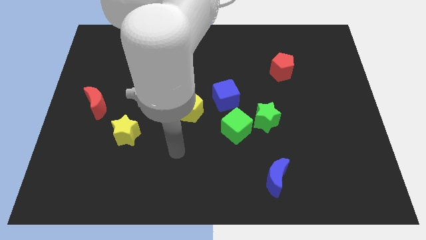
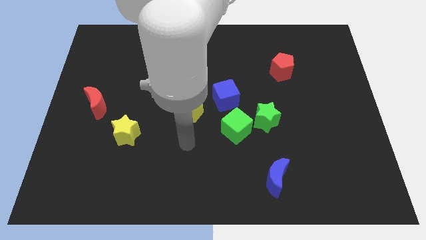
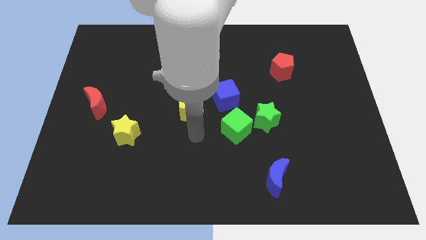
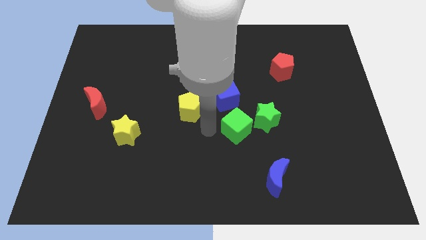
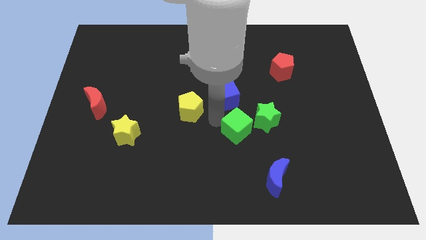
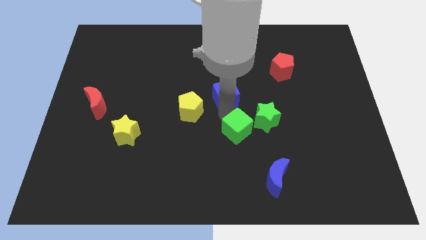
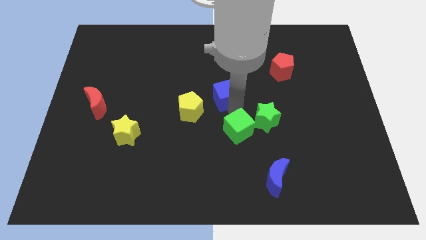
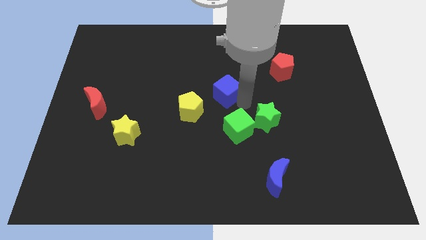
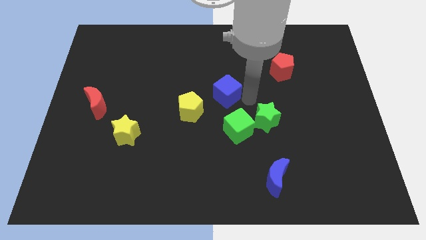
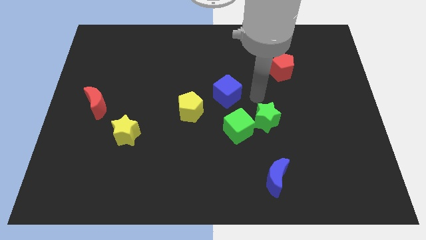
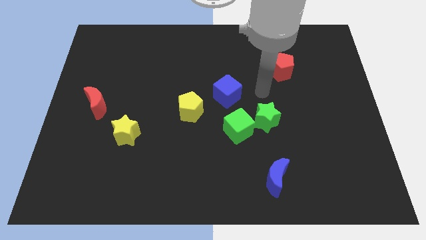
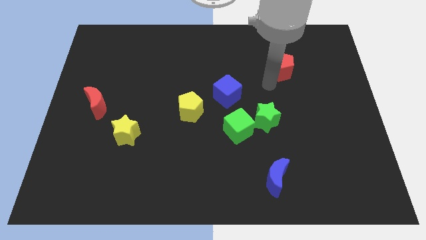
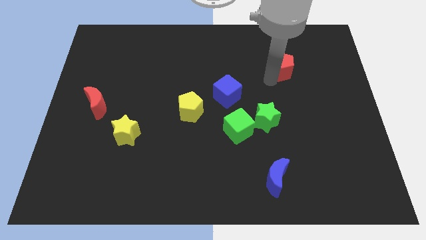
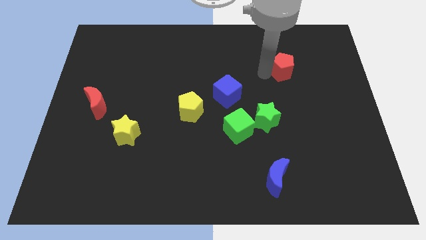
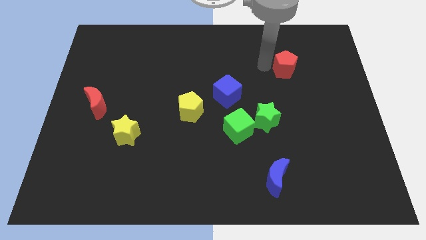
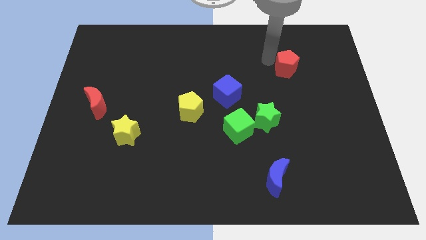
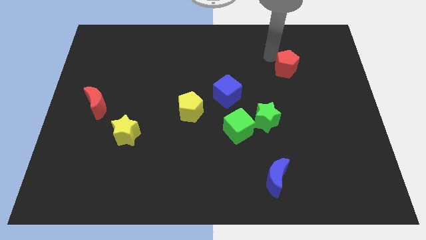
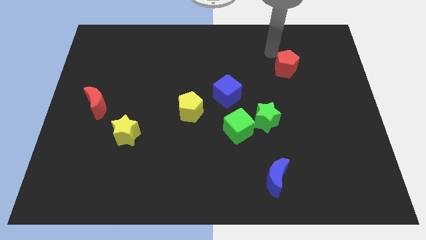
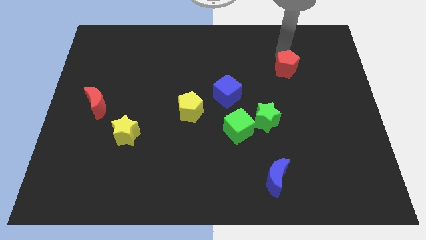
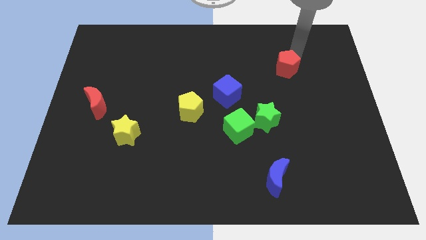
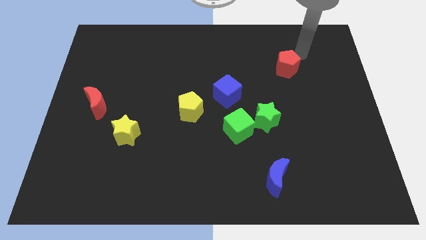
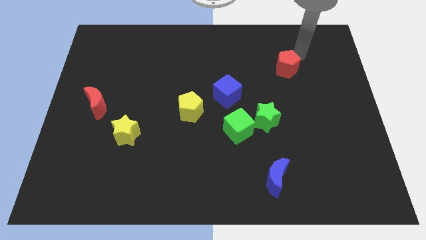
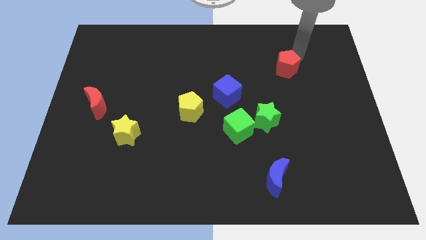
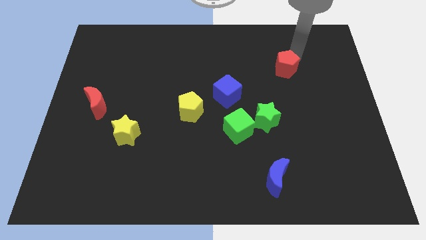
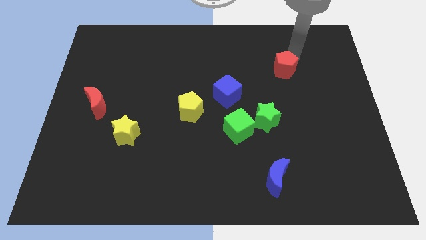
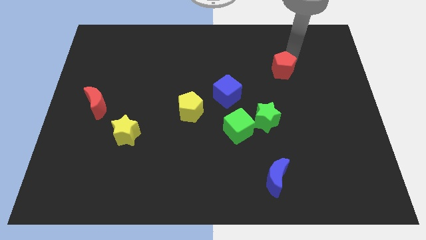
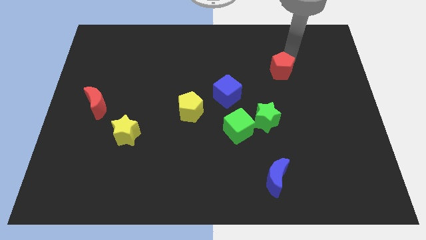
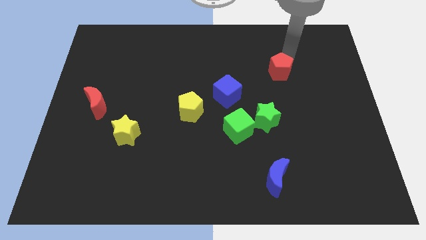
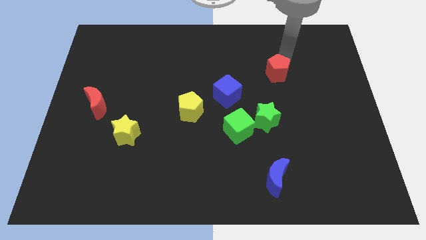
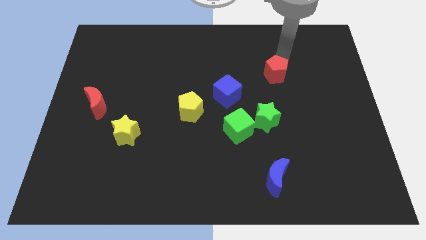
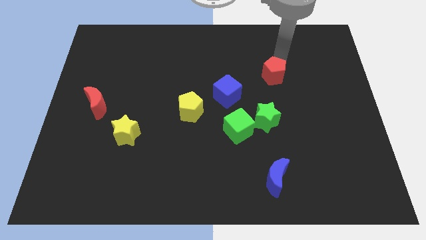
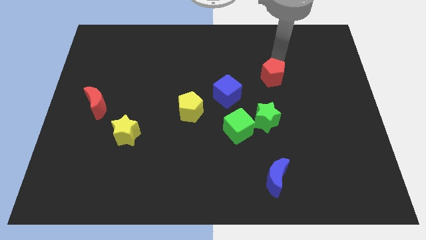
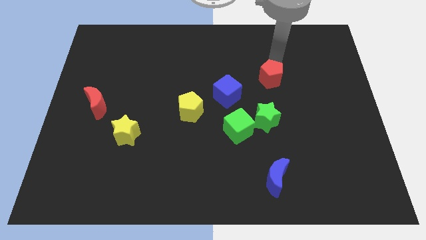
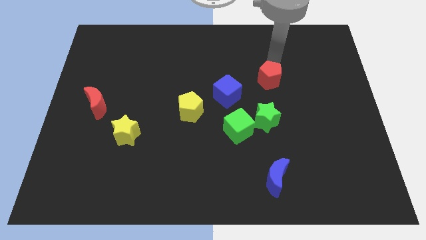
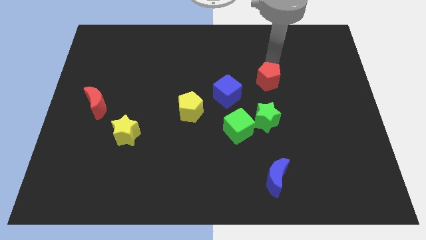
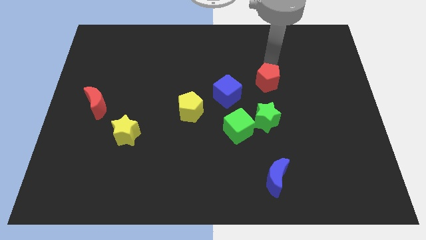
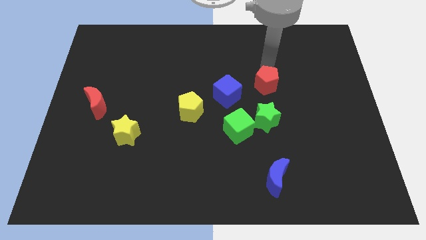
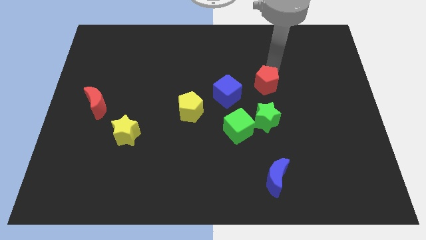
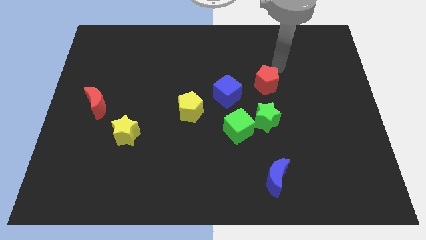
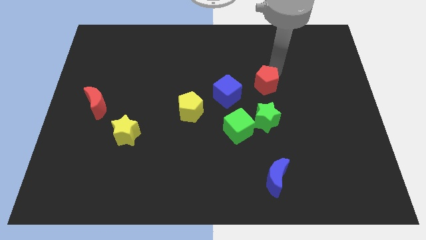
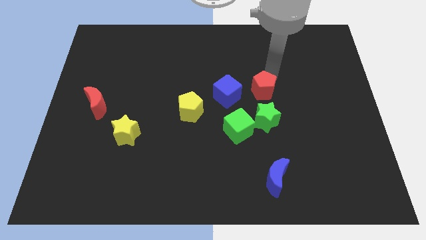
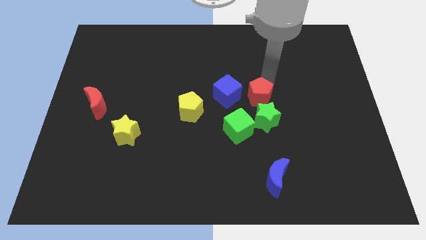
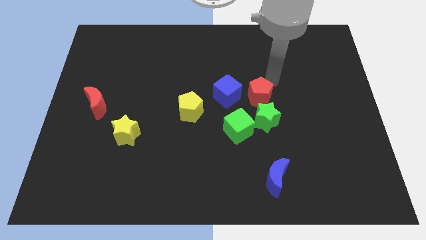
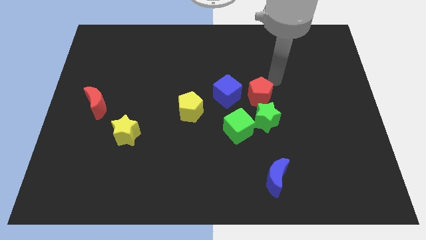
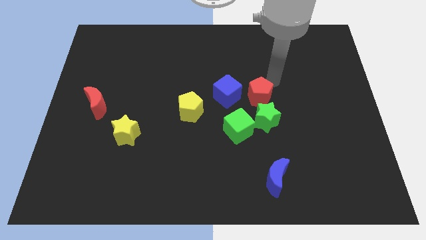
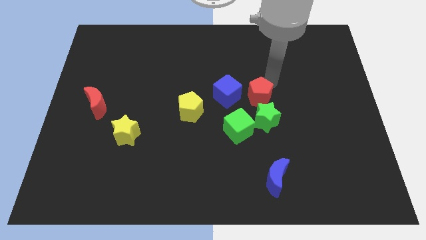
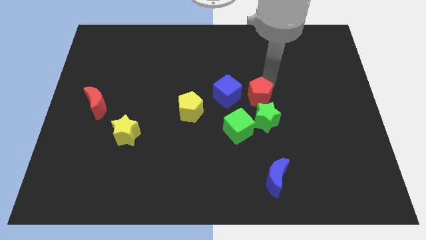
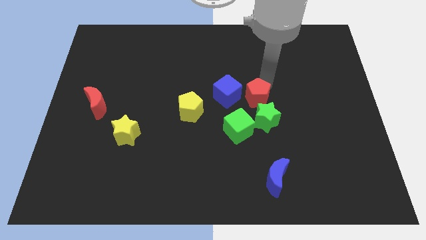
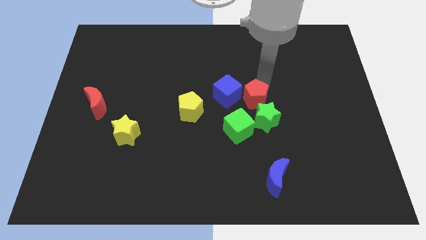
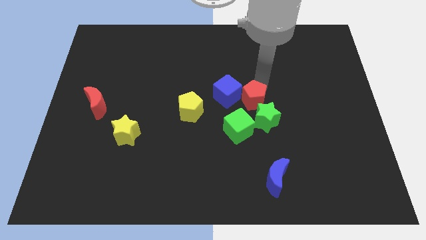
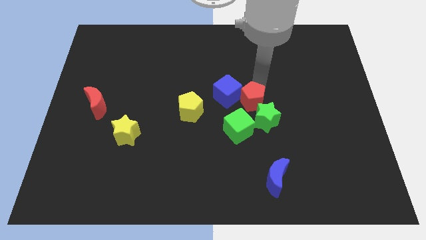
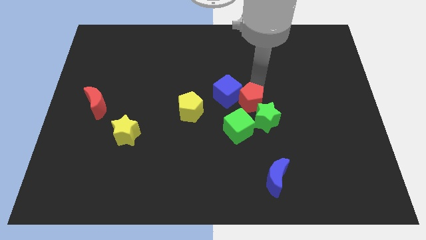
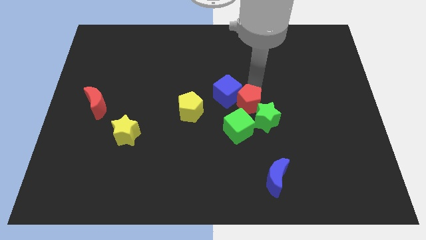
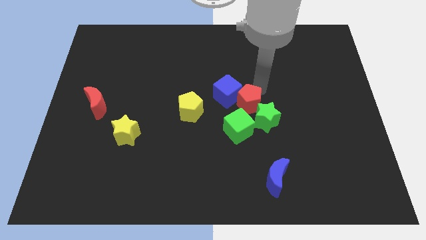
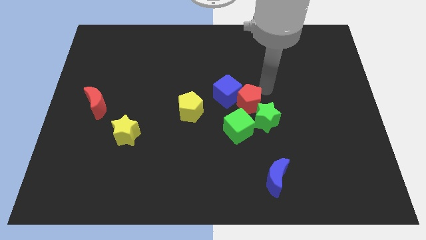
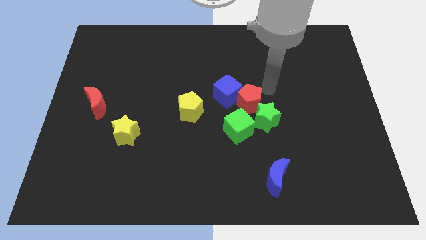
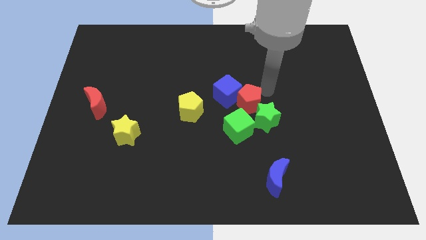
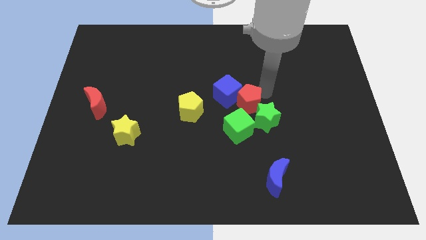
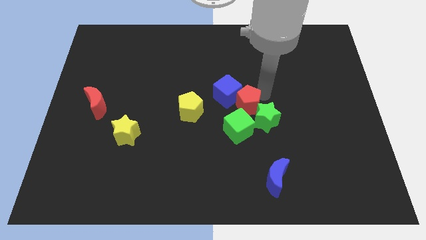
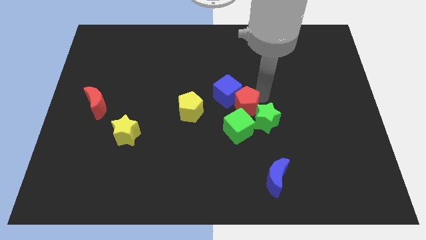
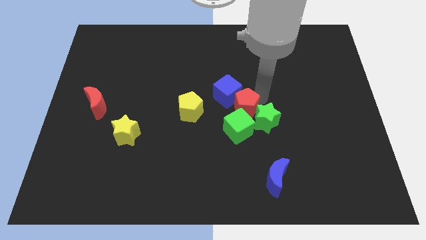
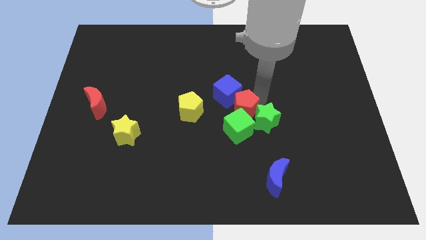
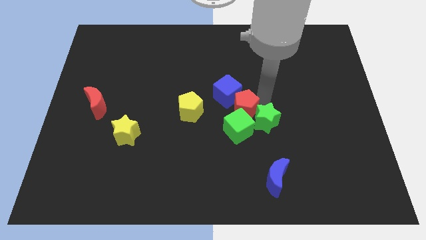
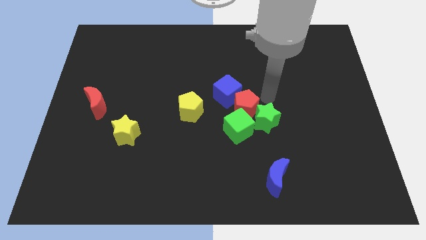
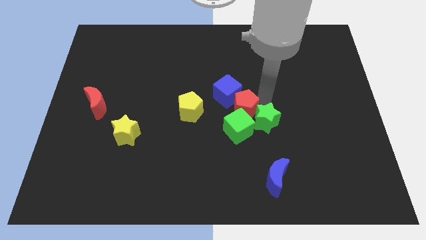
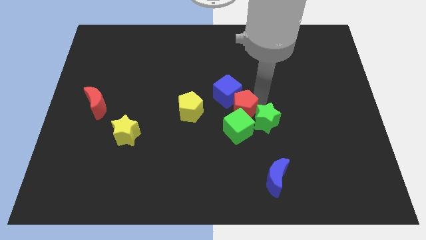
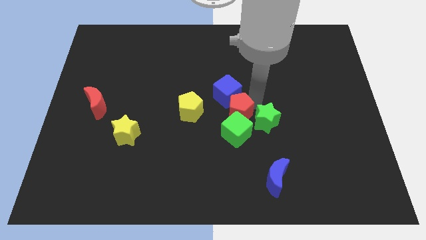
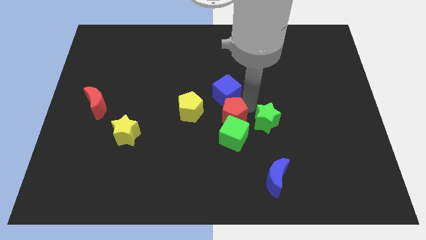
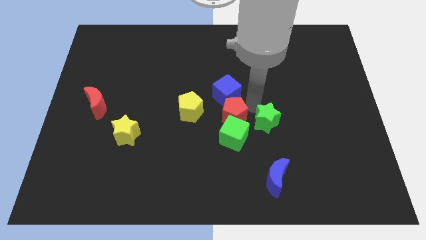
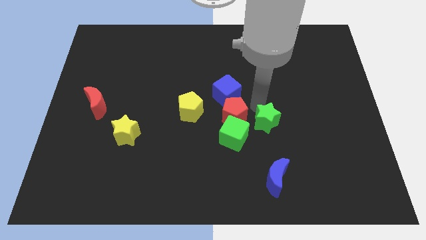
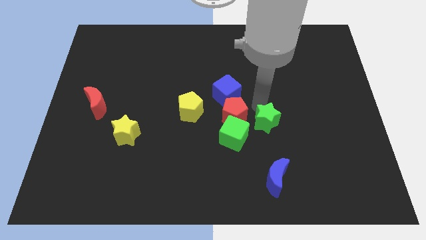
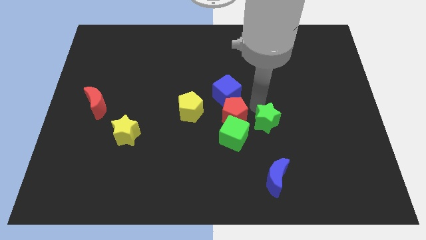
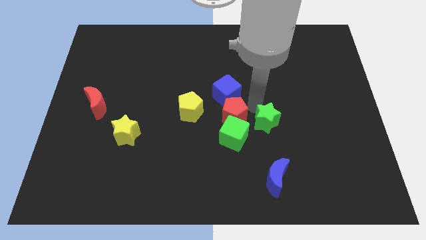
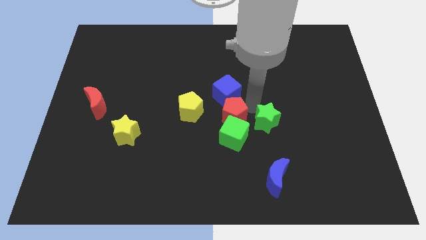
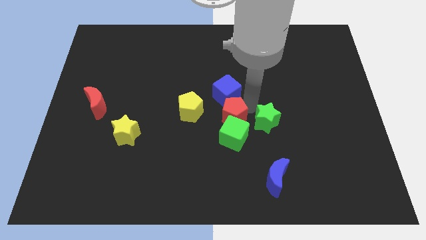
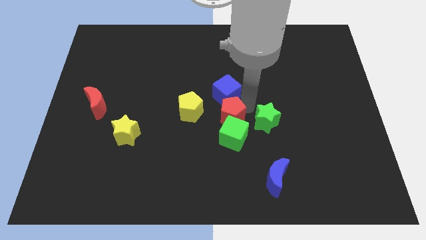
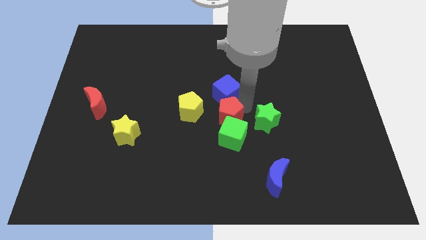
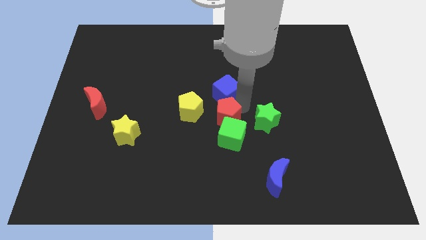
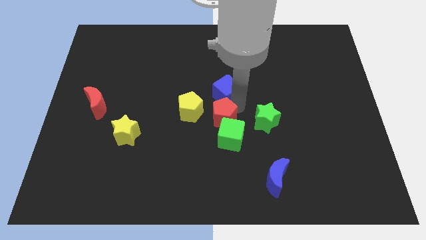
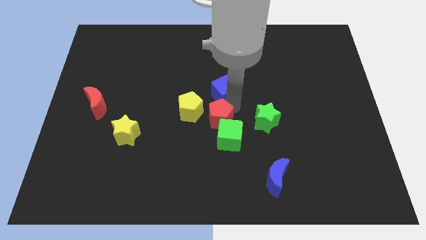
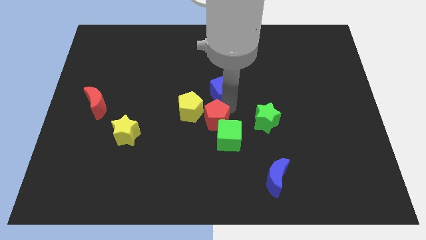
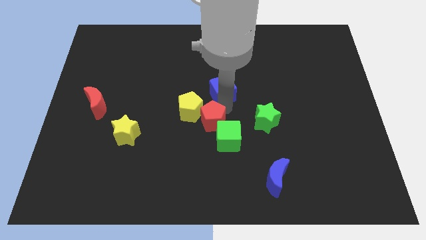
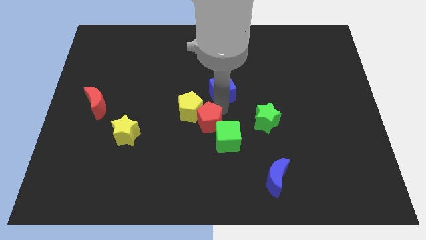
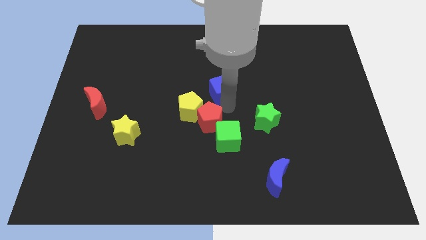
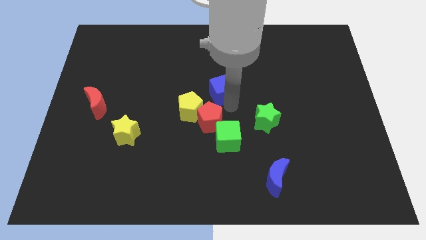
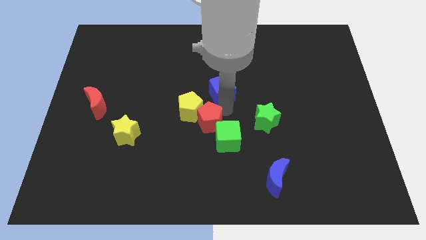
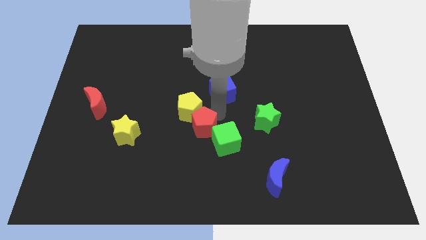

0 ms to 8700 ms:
slide the red pentagon just left of the green cube
